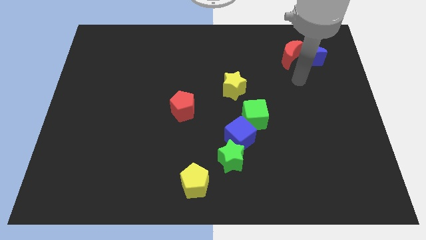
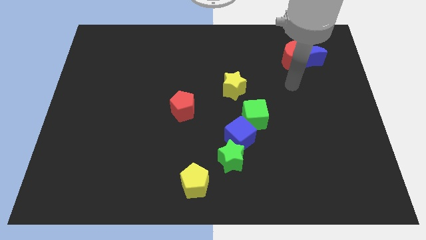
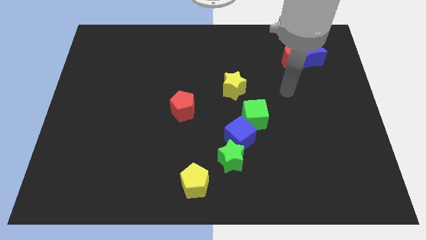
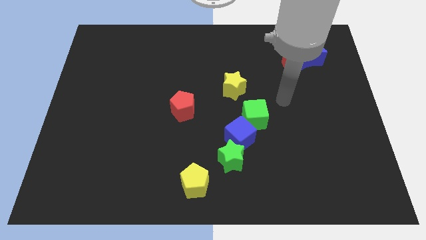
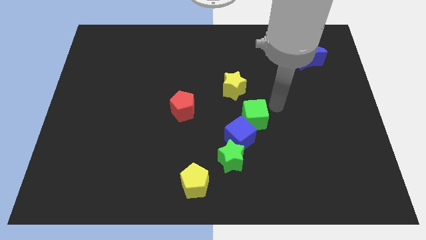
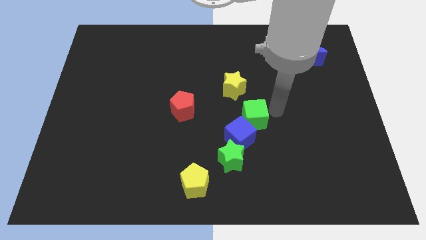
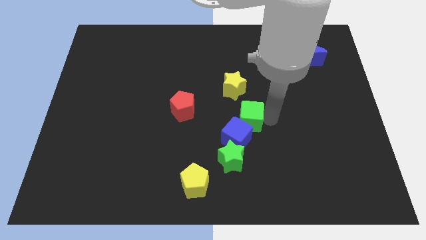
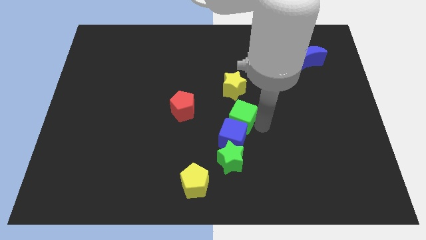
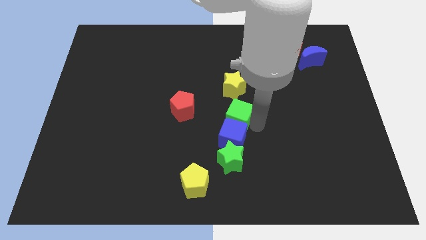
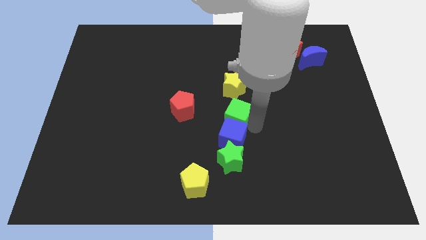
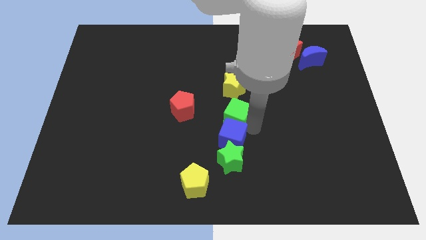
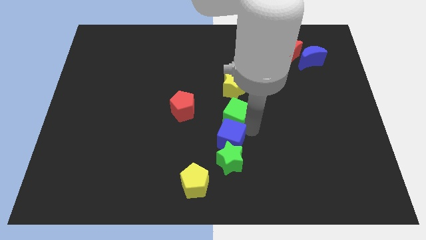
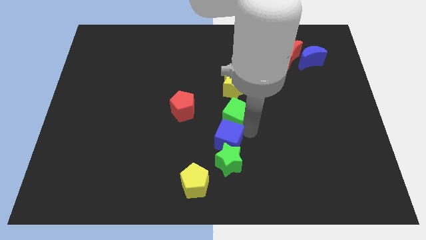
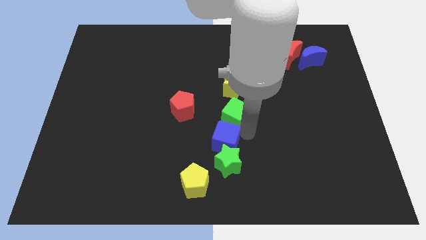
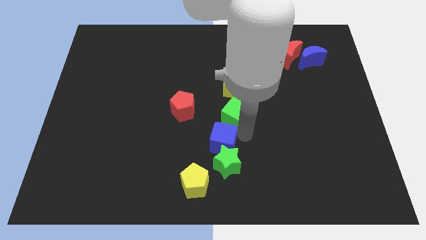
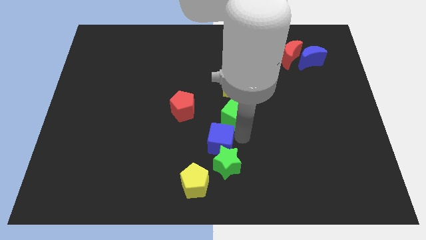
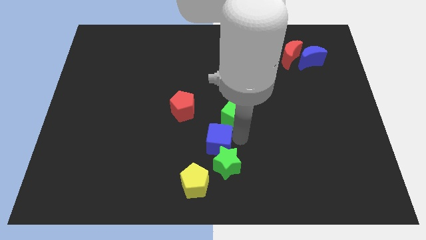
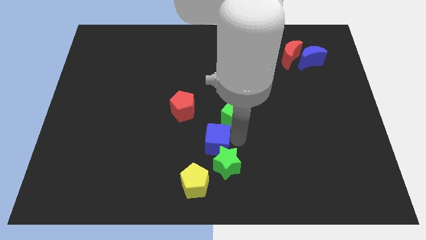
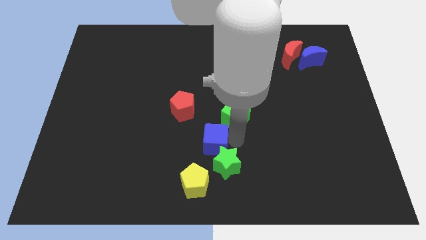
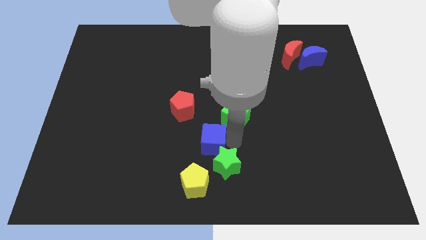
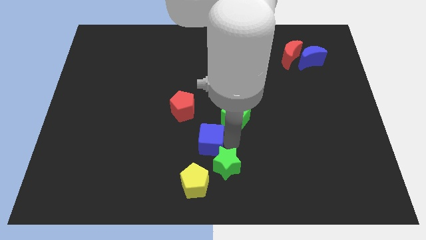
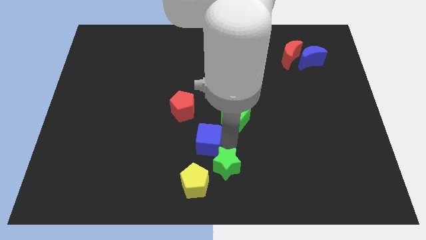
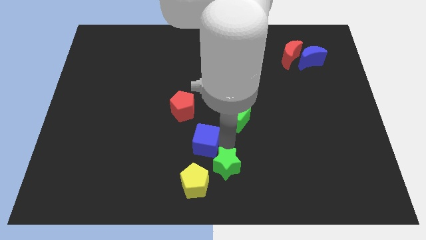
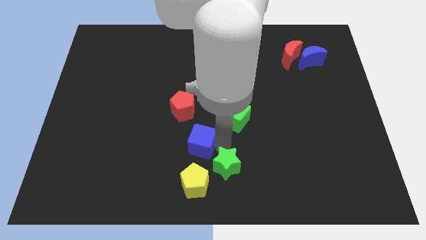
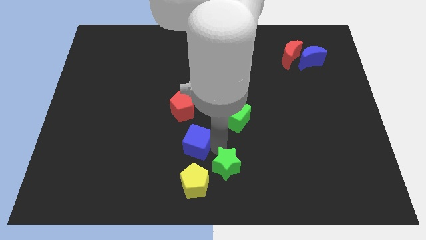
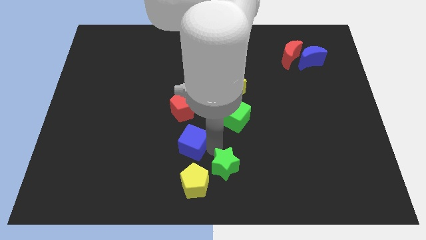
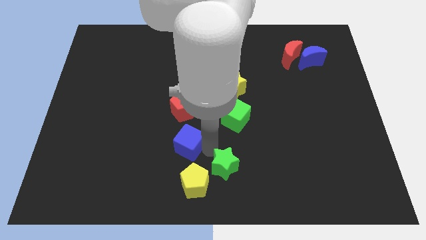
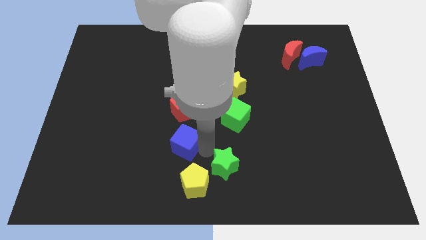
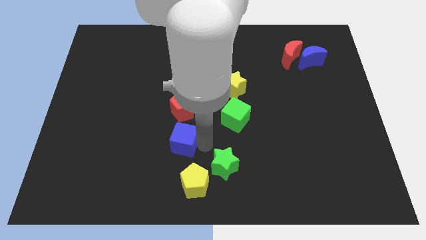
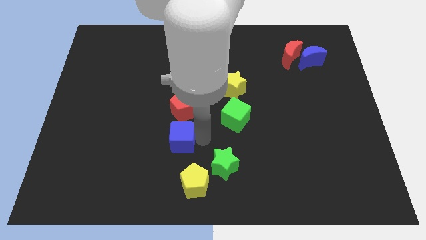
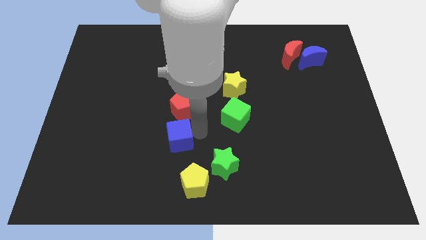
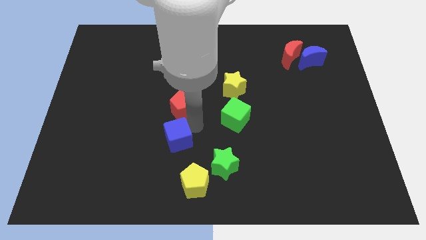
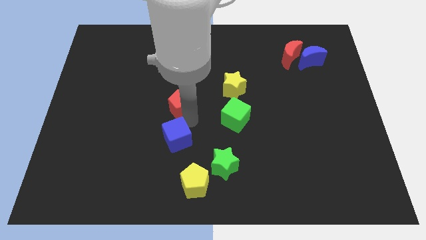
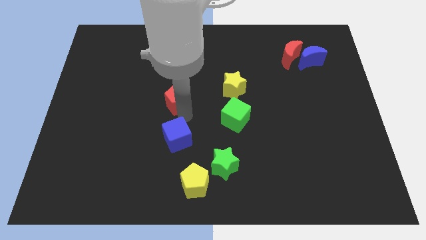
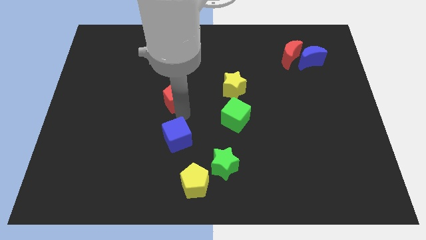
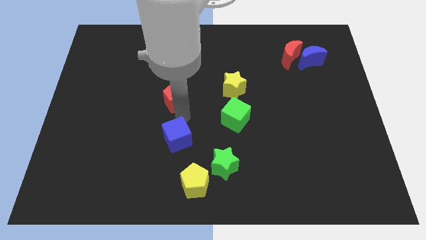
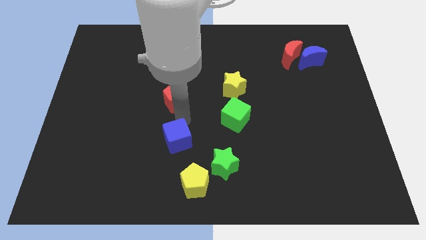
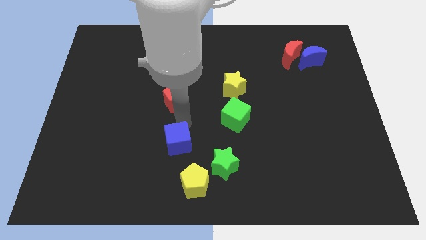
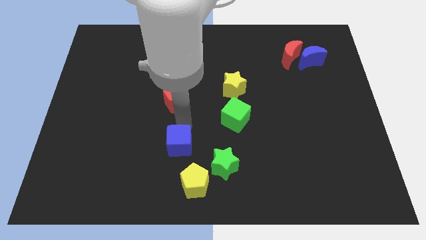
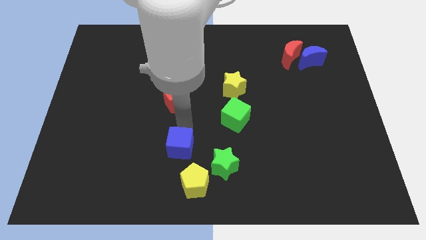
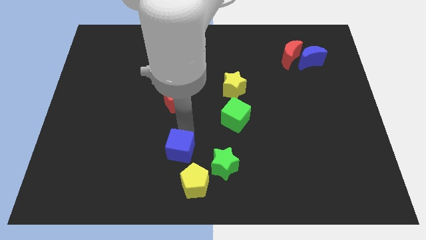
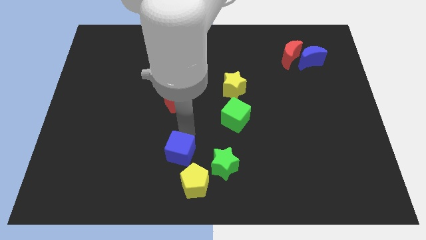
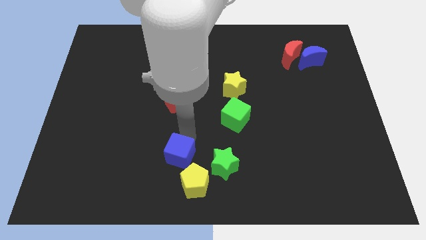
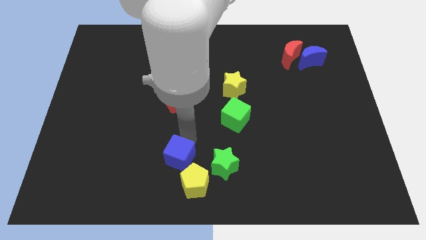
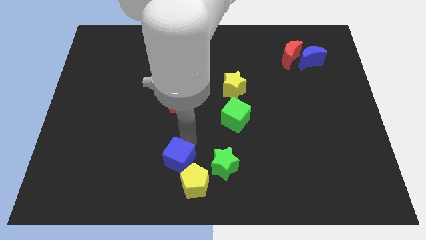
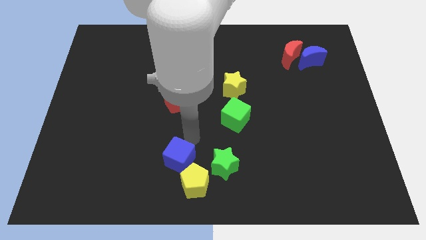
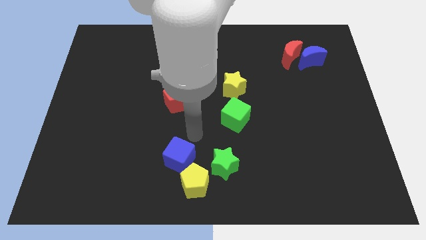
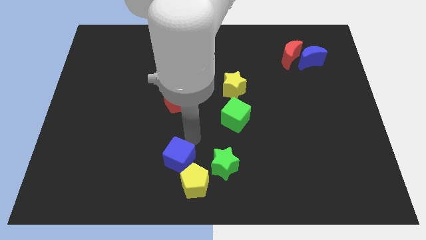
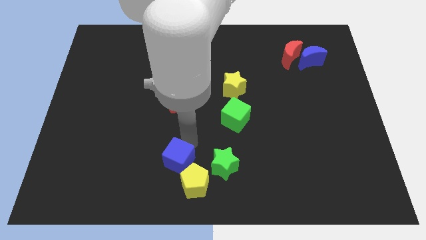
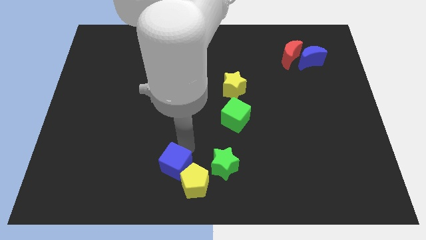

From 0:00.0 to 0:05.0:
put the blue cube to the left of the yellow pentagon

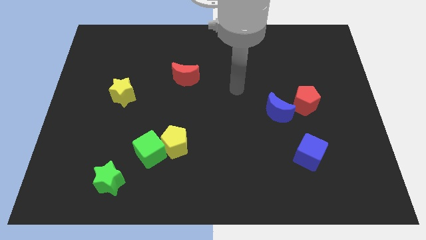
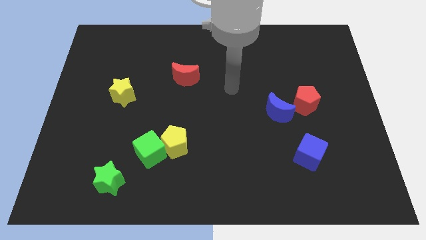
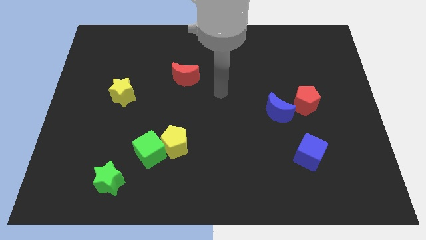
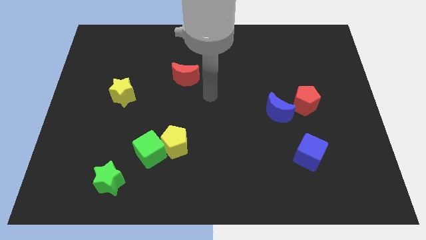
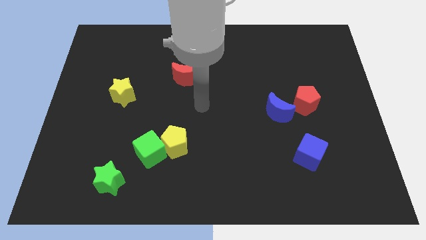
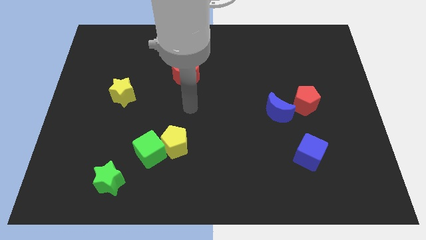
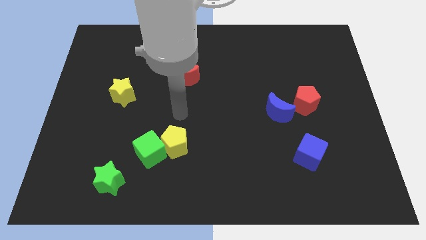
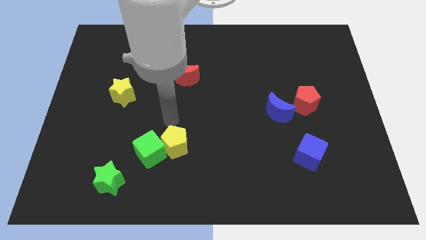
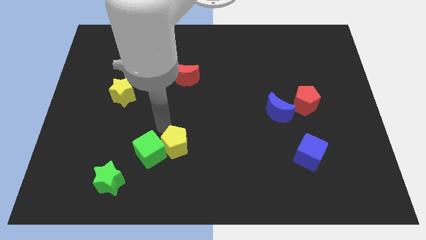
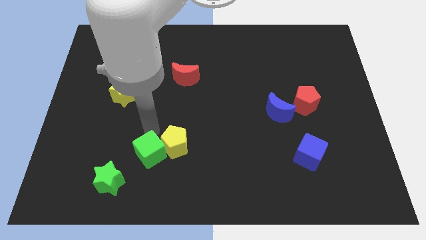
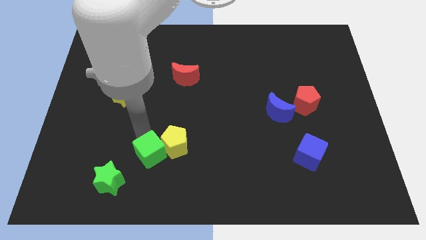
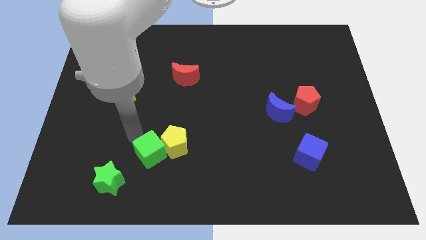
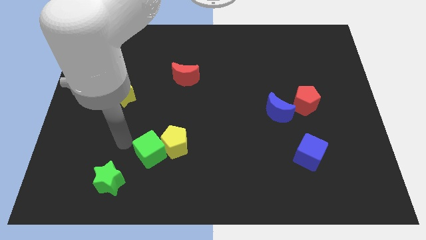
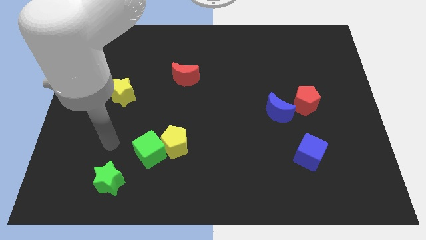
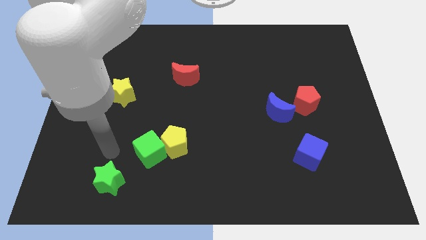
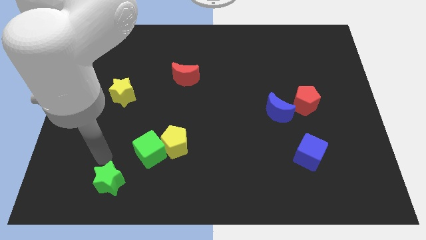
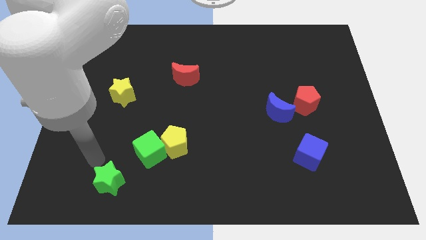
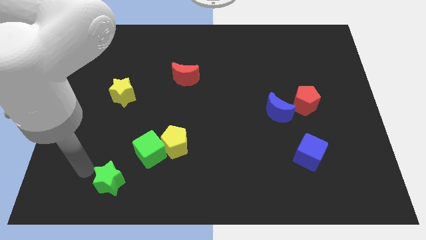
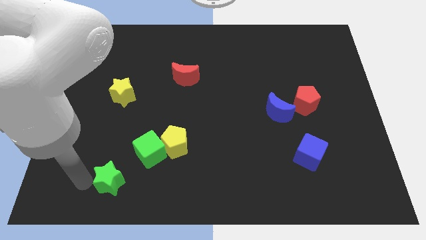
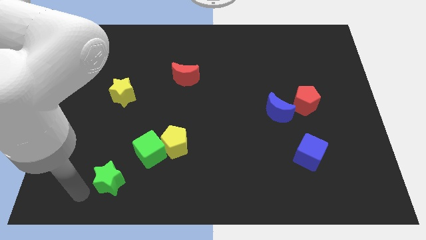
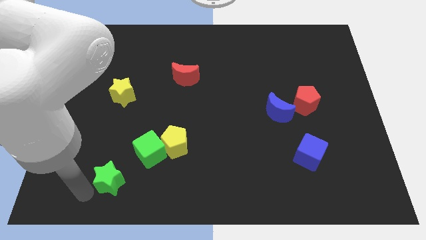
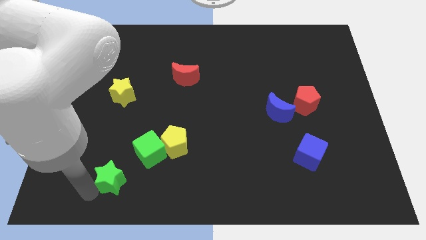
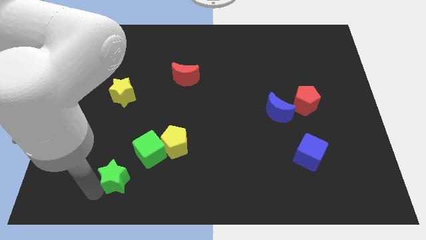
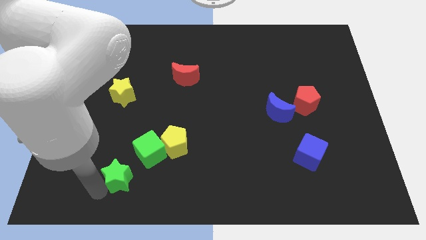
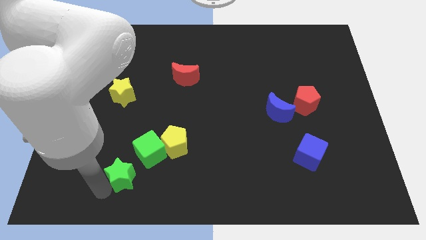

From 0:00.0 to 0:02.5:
slide the green star diagonally down and to the left of the yellow pentagon

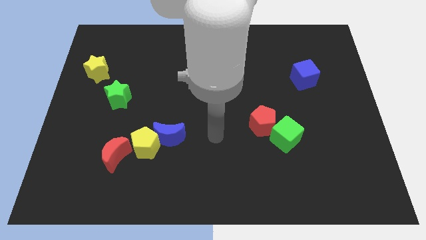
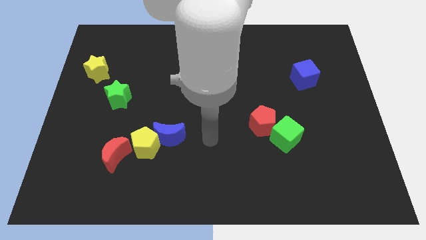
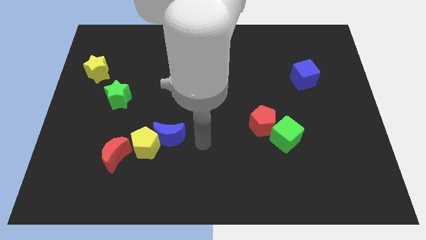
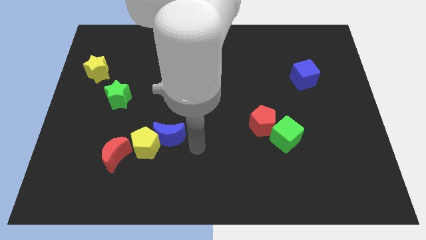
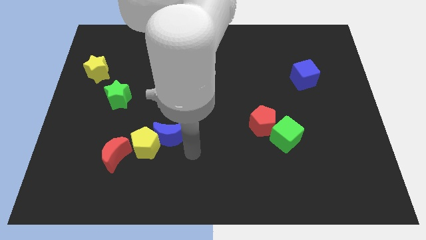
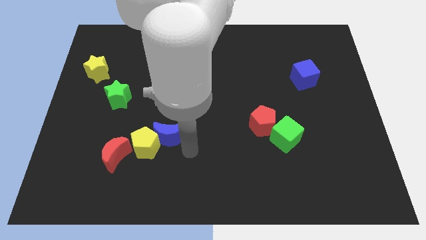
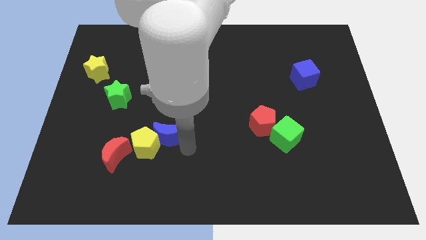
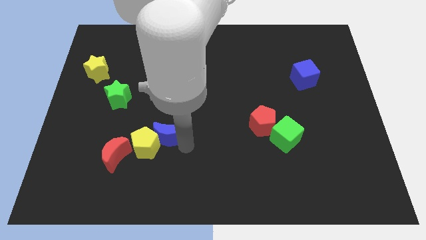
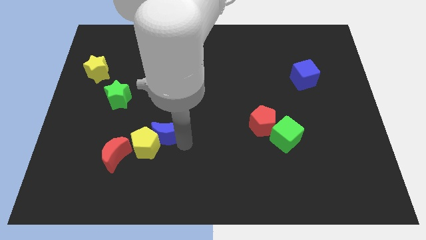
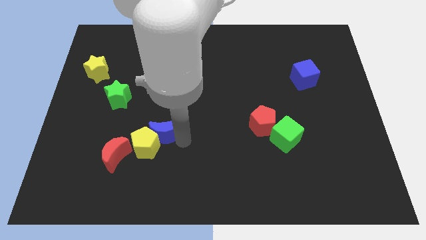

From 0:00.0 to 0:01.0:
push the blue moon to the top right of the red moon
